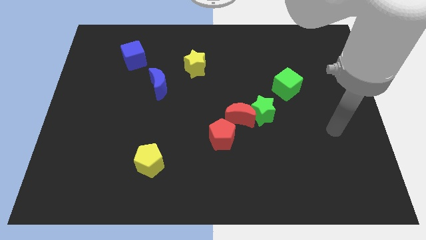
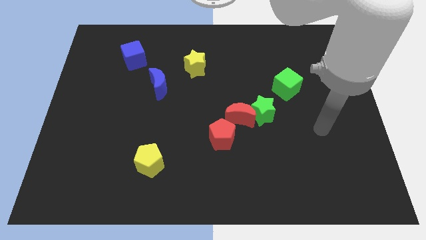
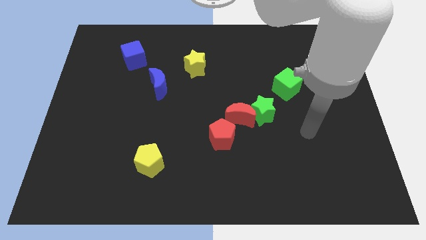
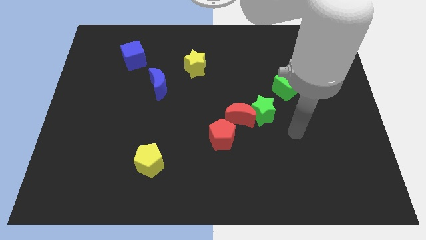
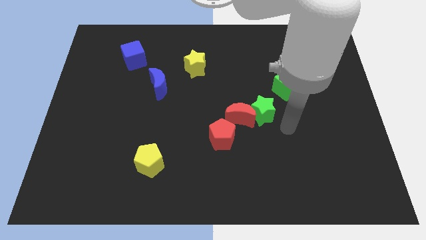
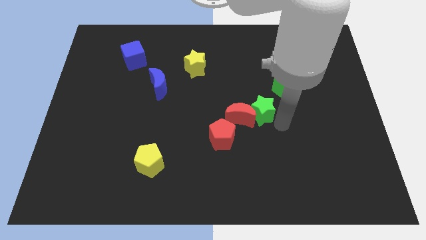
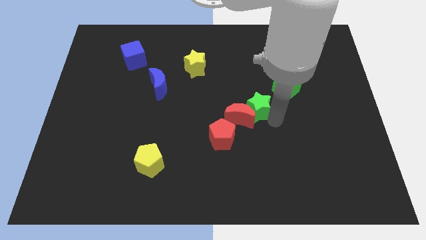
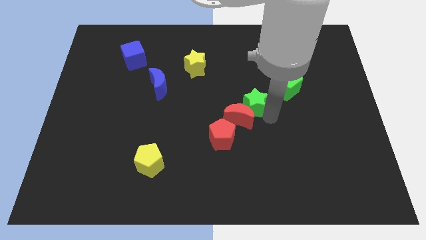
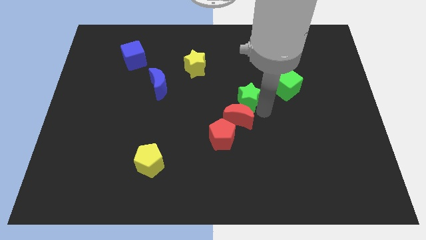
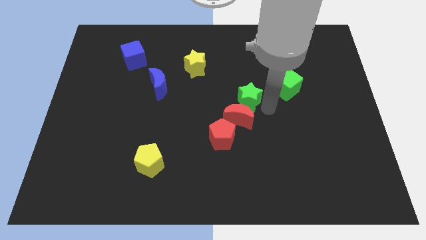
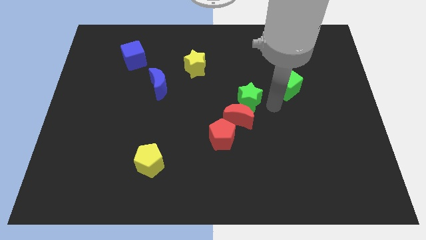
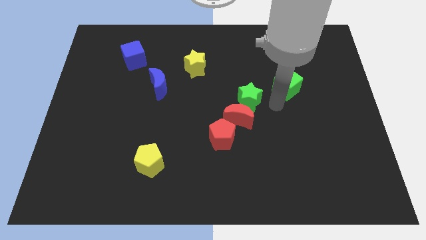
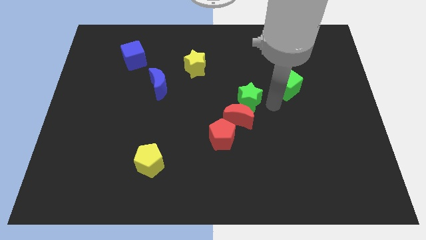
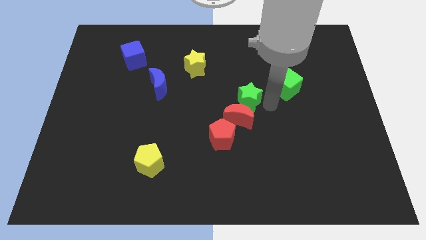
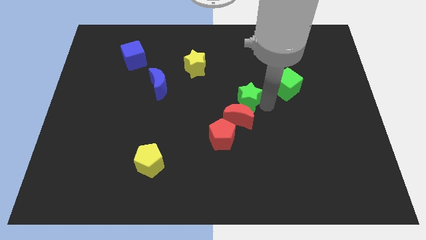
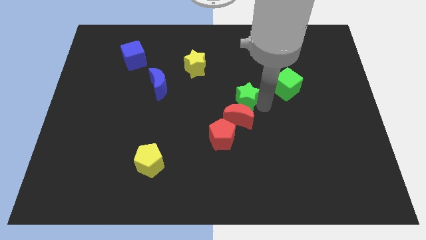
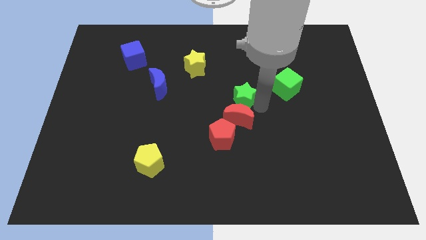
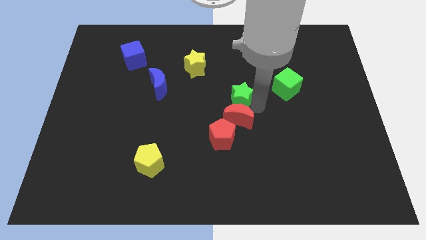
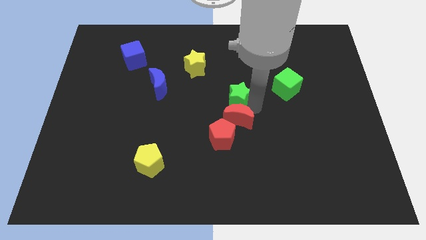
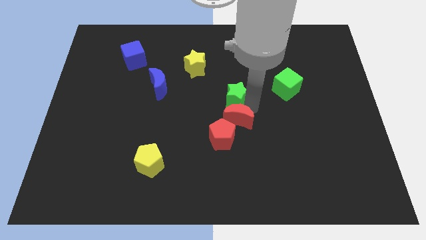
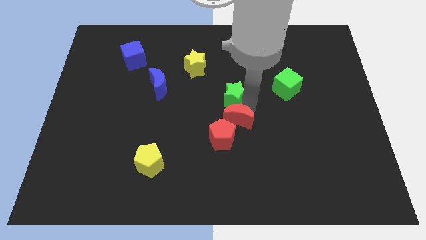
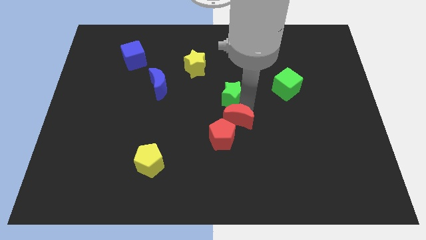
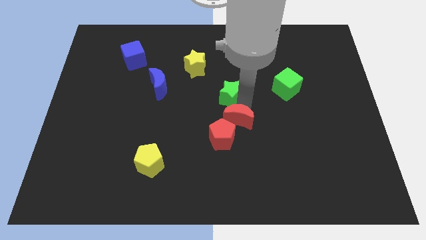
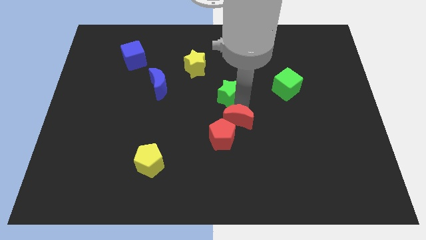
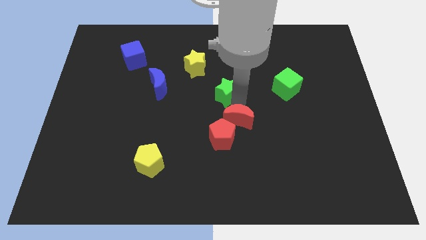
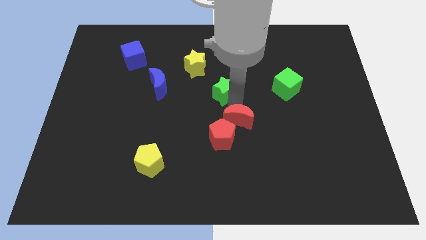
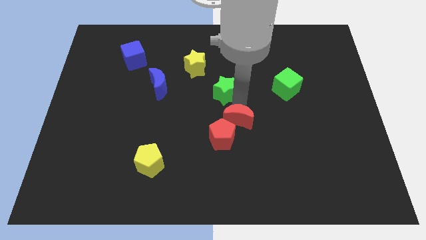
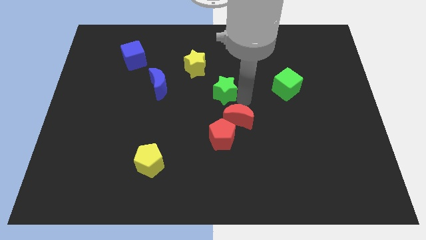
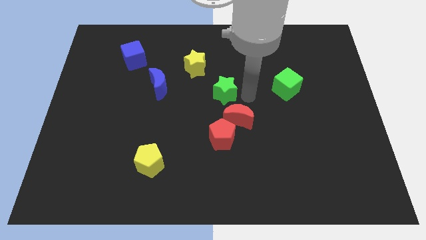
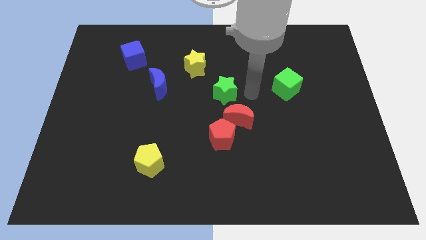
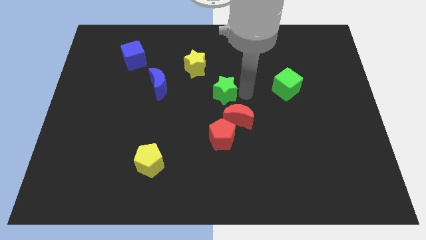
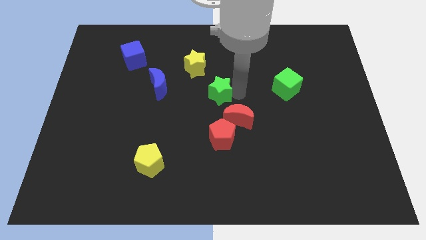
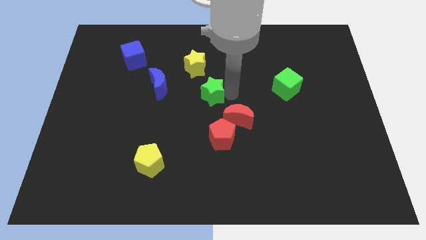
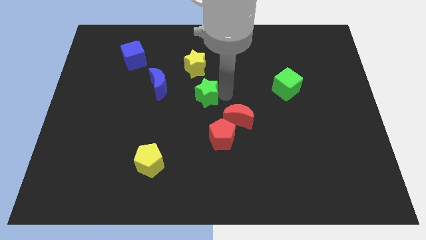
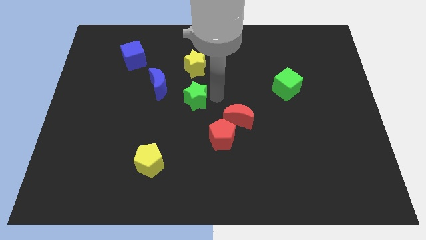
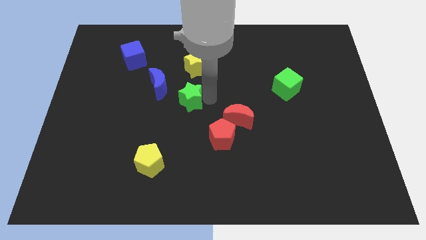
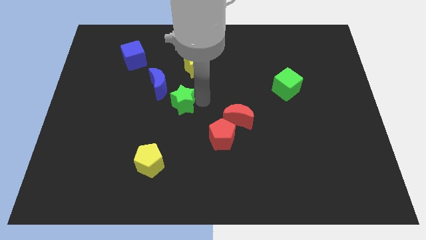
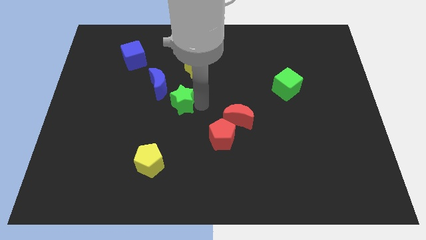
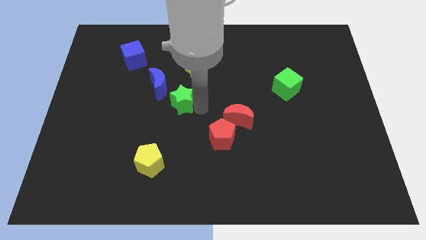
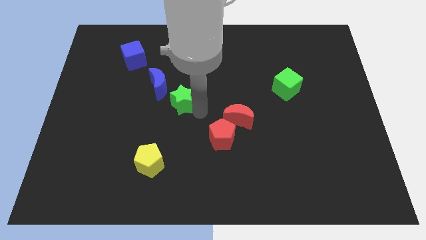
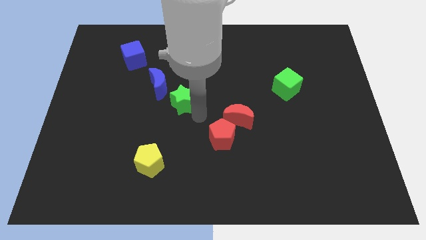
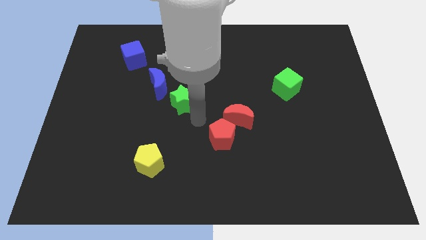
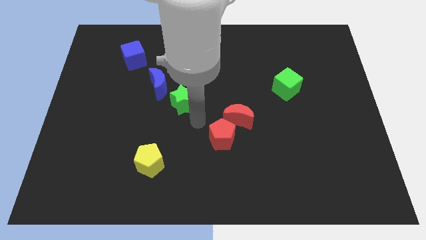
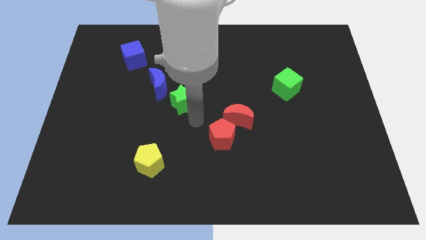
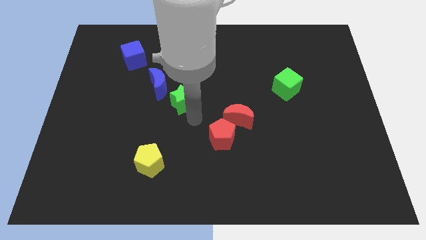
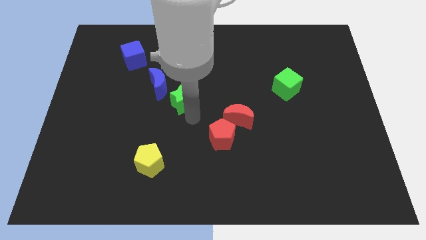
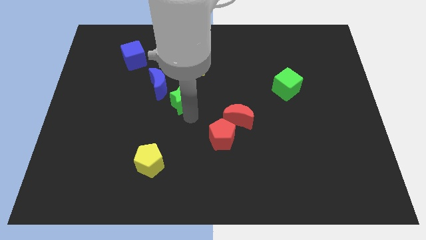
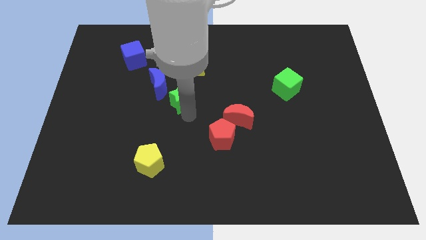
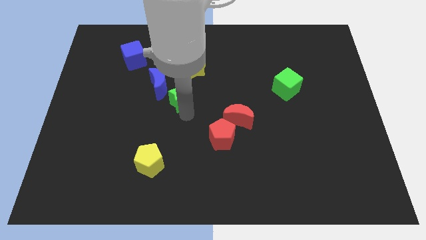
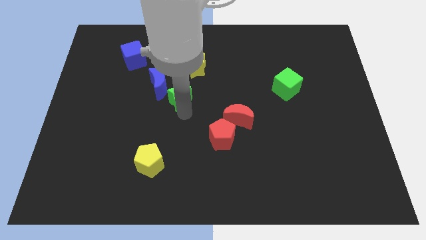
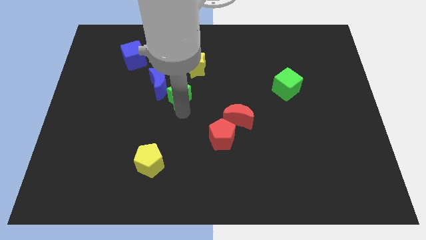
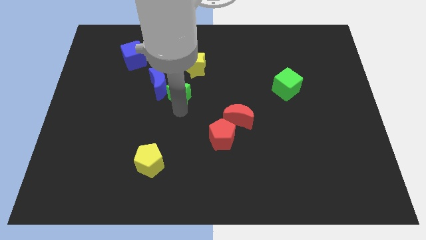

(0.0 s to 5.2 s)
move the green star towards the blue moon

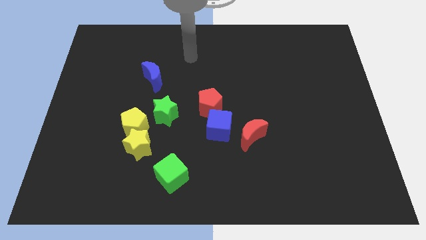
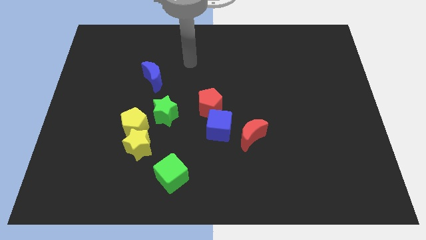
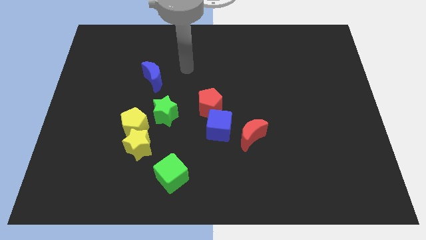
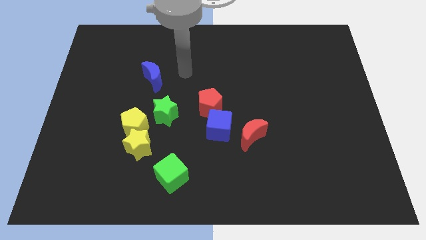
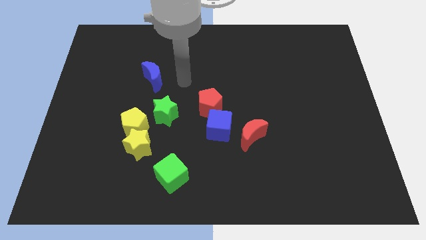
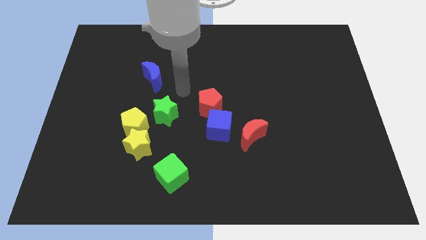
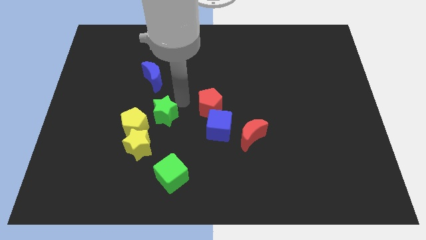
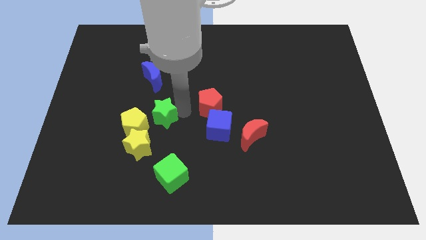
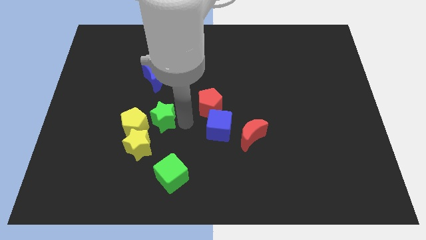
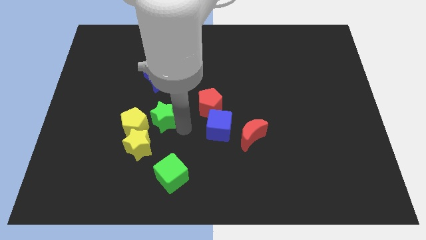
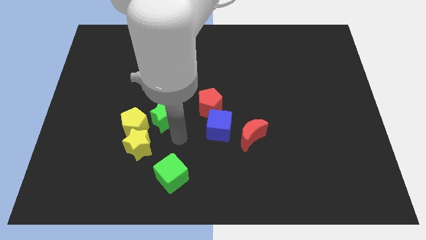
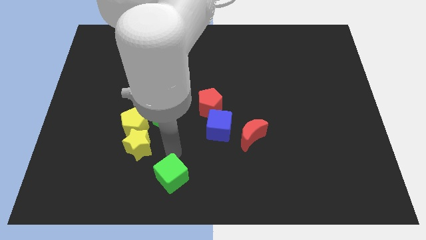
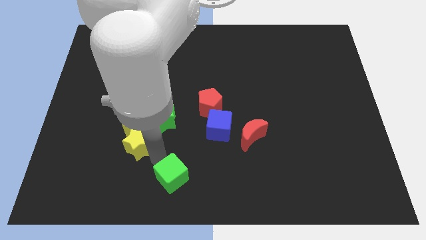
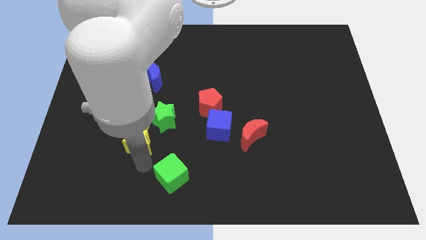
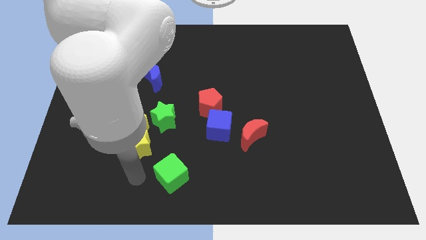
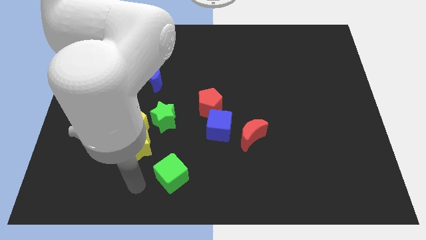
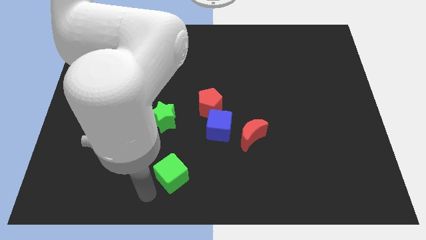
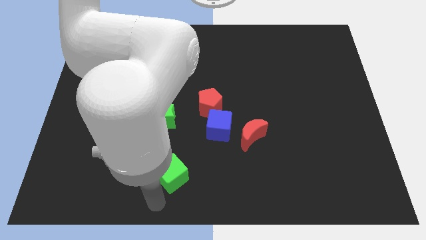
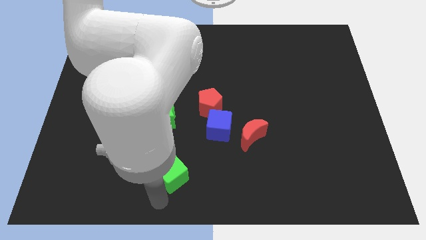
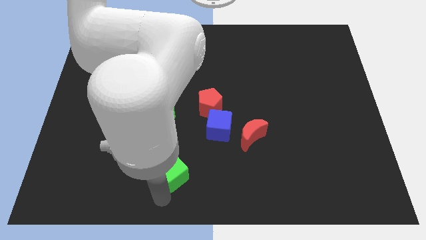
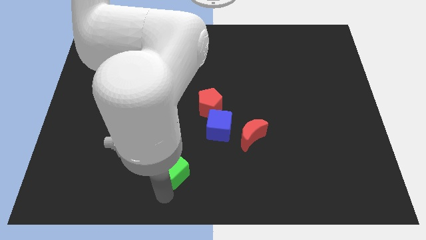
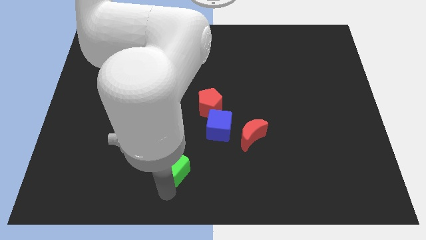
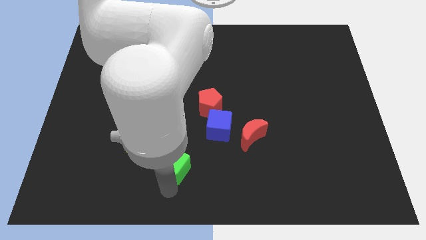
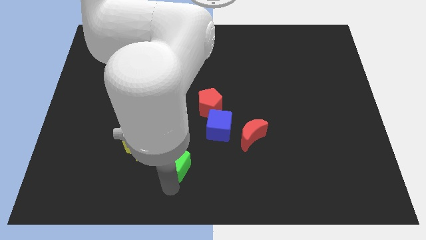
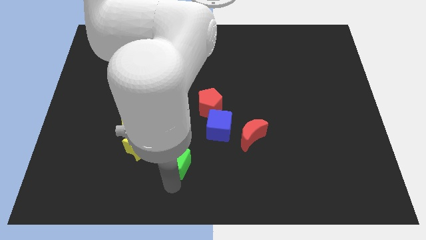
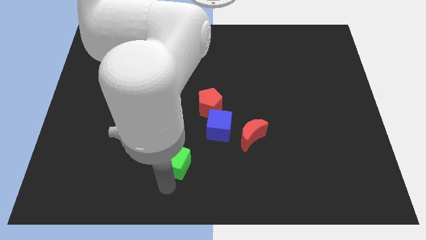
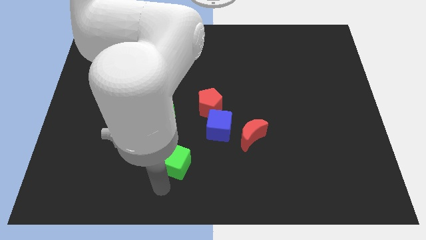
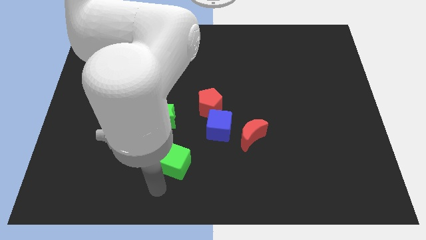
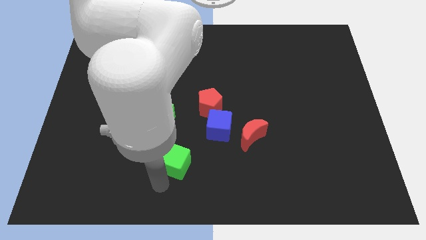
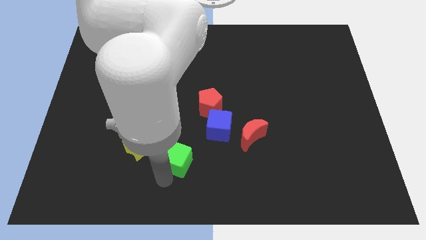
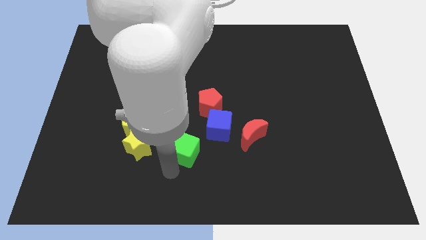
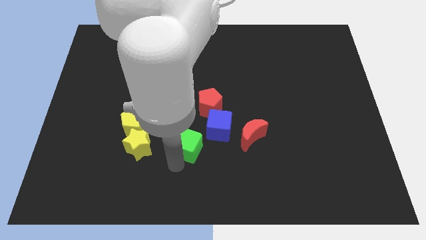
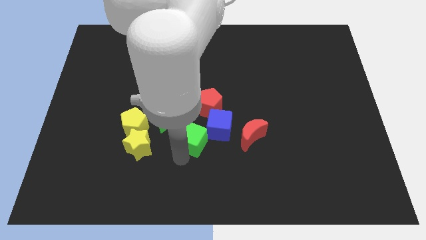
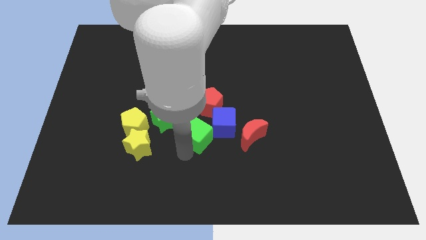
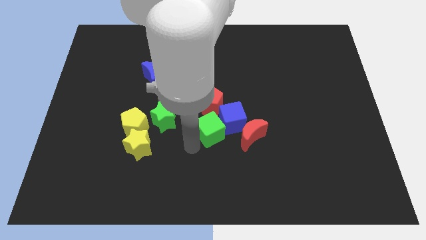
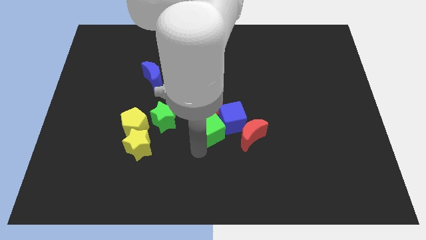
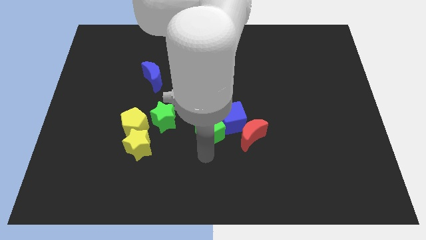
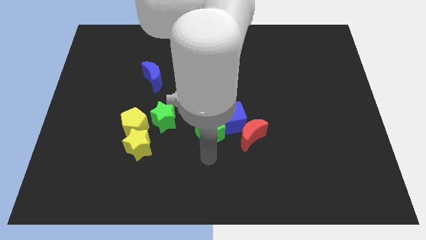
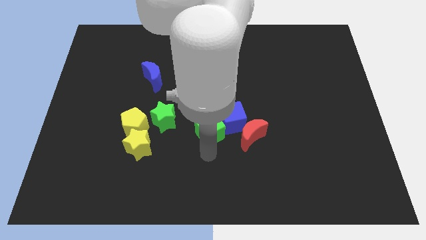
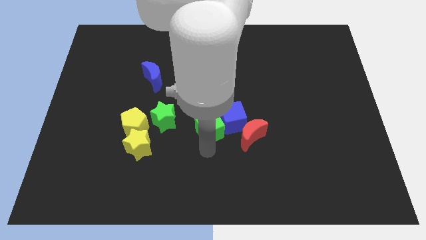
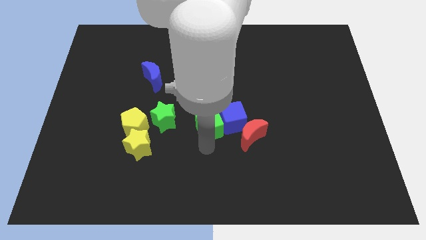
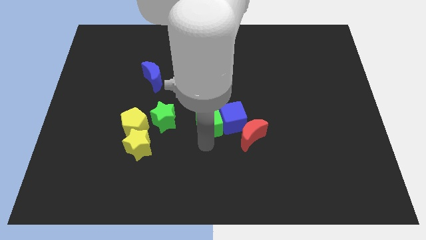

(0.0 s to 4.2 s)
move the green cube towards the red pentagon
